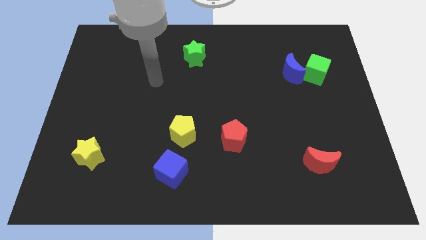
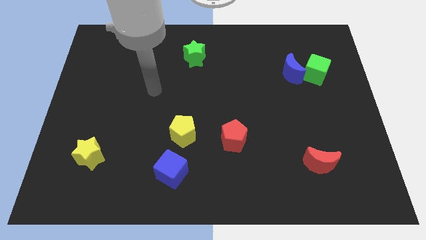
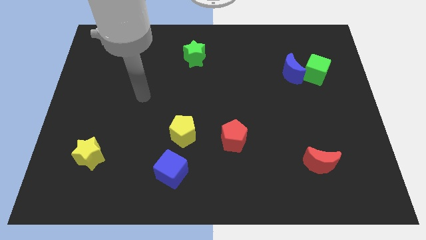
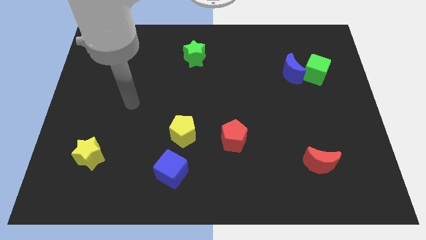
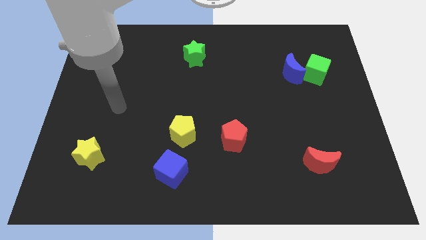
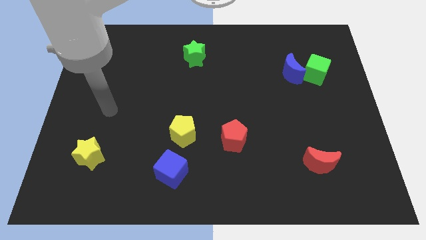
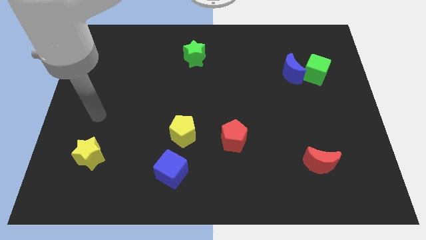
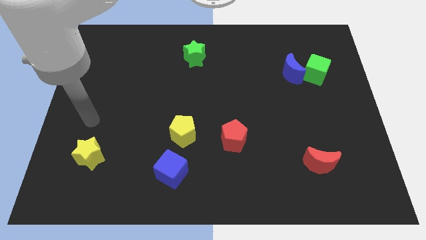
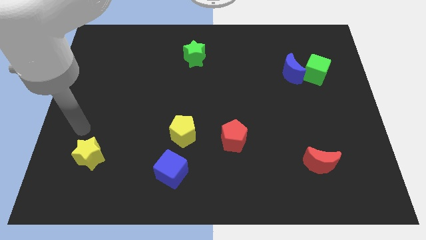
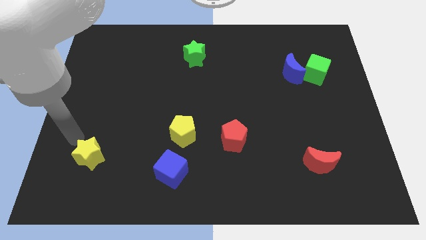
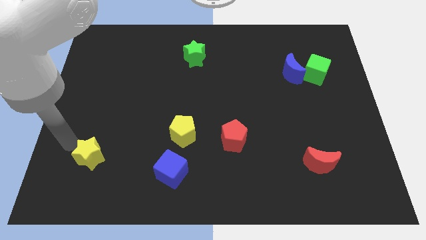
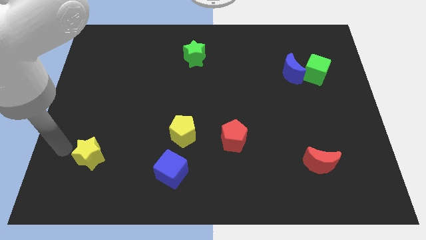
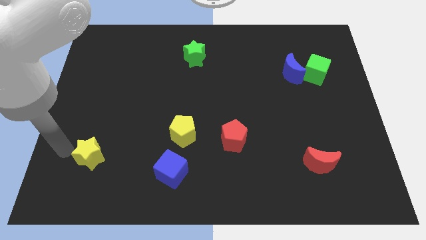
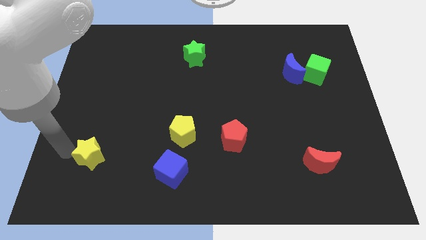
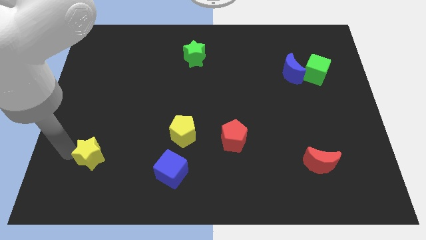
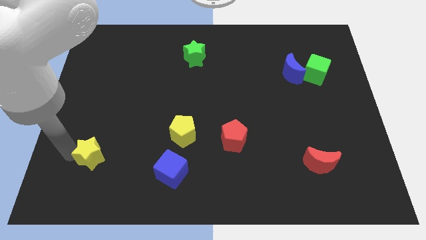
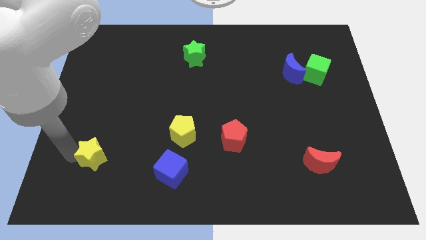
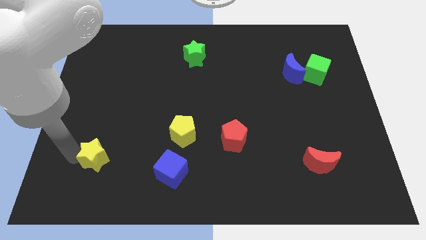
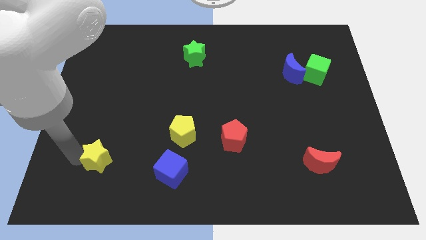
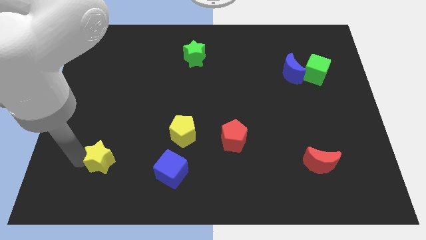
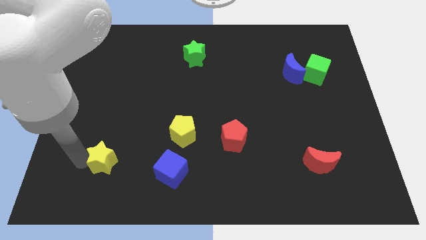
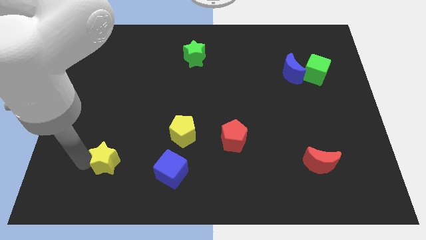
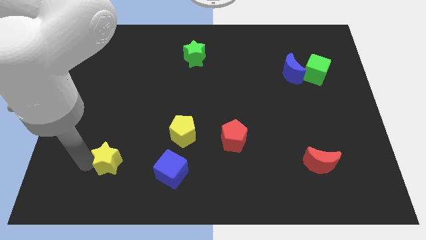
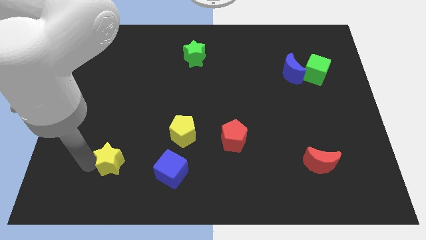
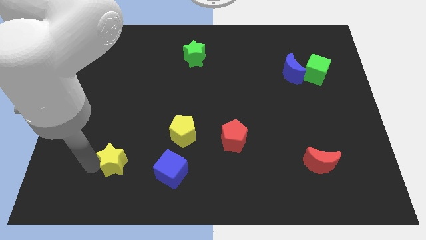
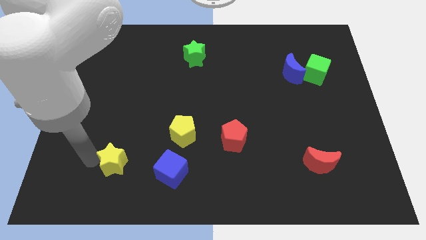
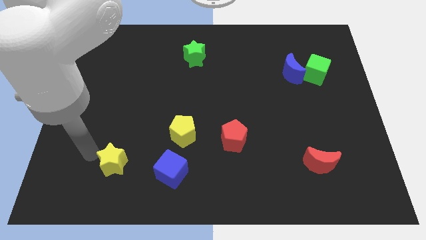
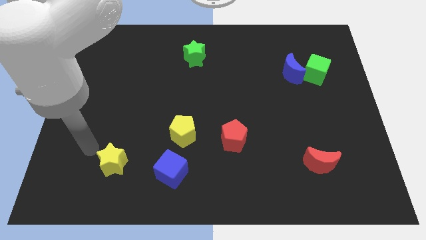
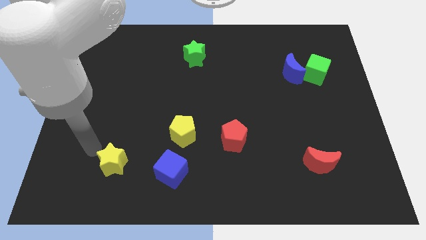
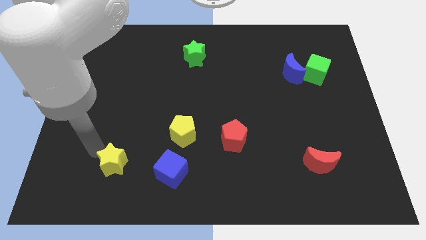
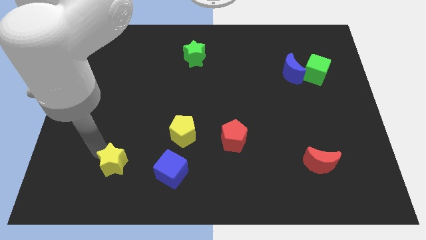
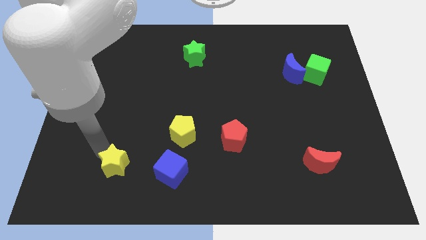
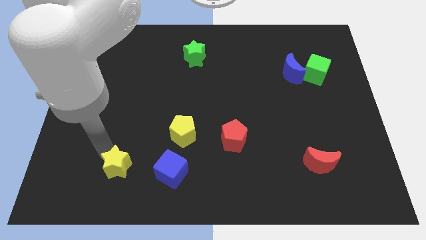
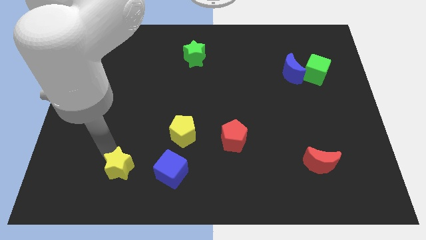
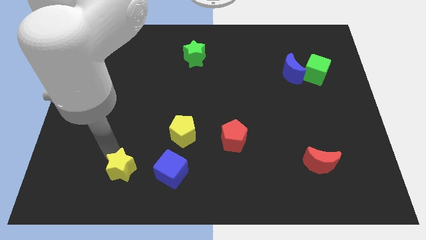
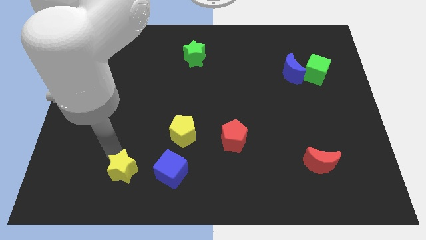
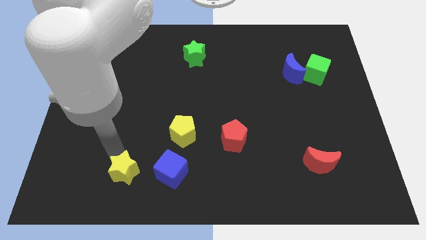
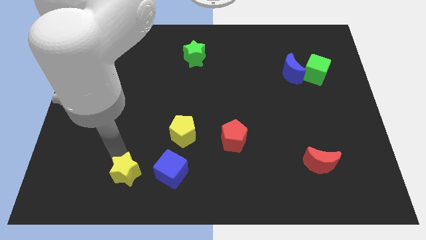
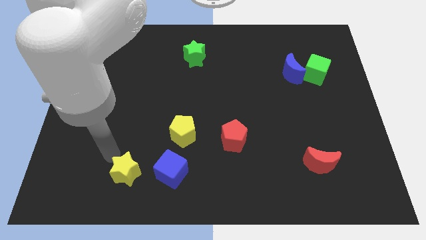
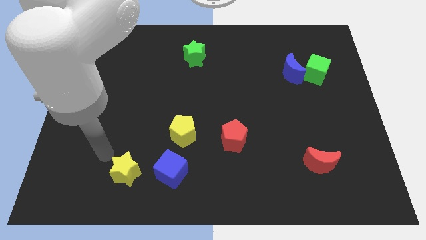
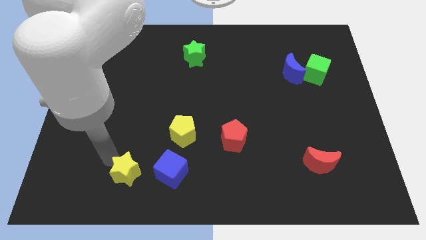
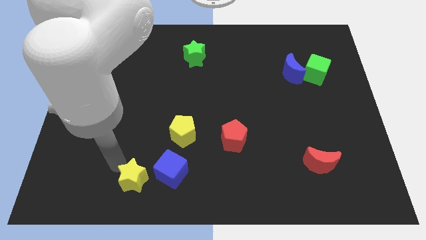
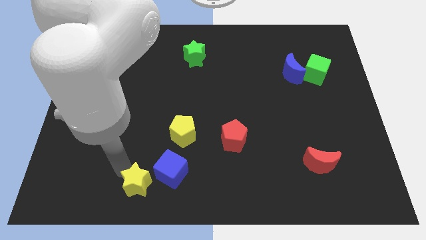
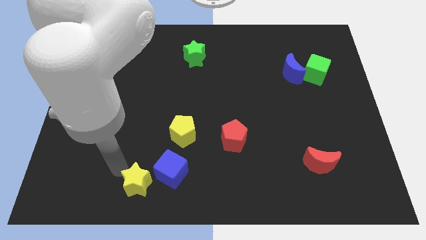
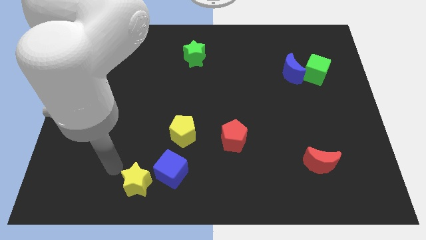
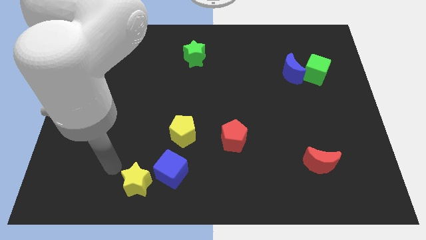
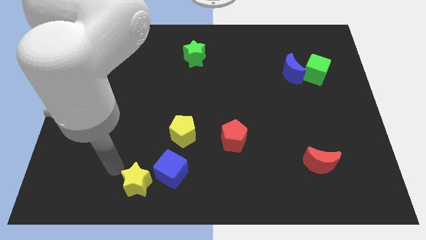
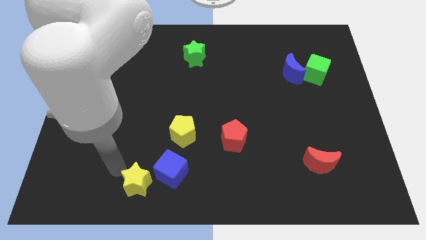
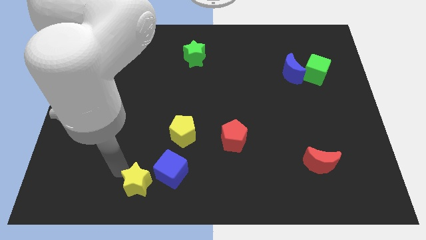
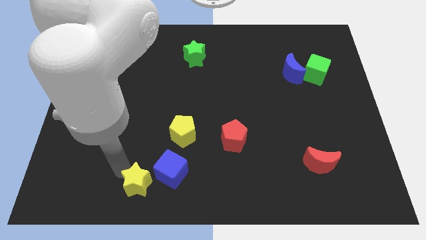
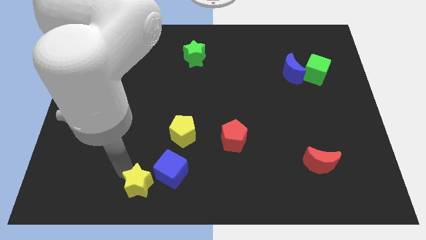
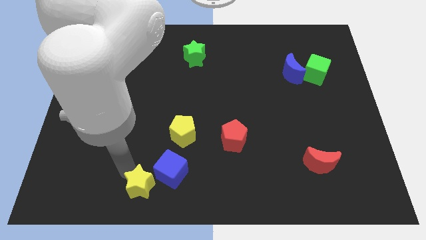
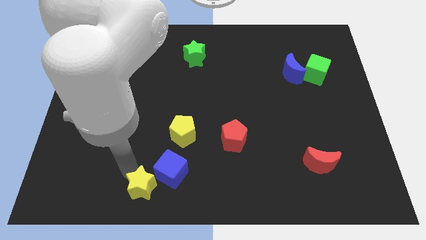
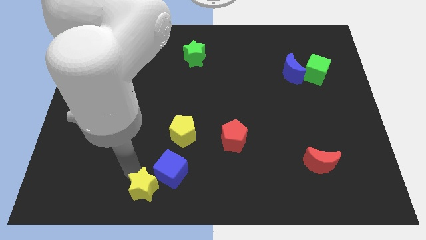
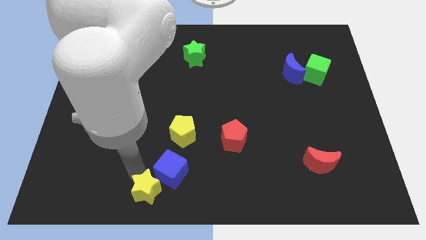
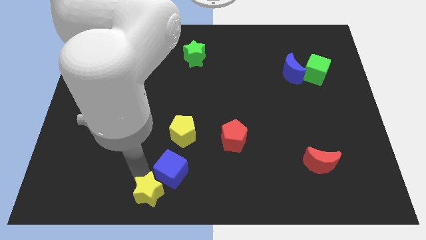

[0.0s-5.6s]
slide the yellow star to the bottom

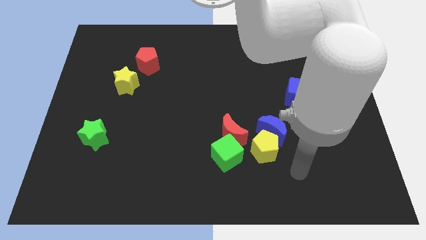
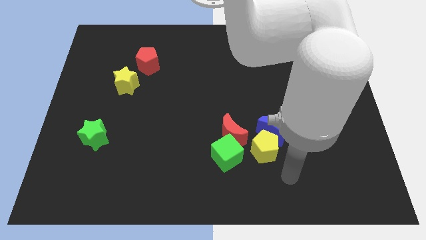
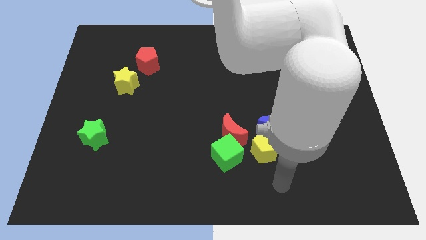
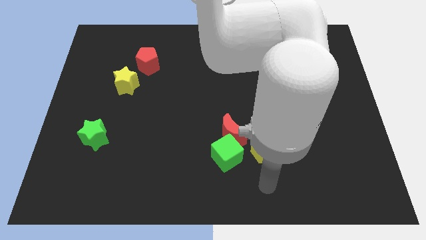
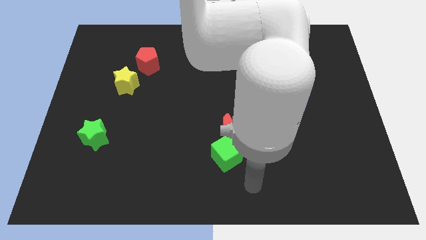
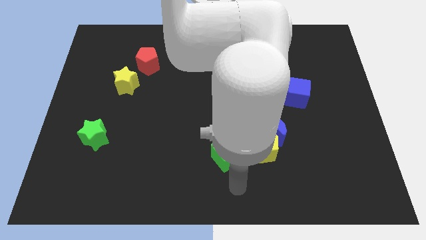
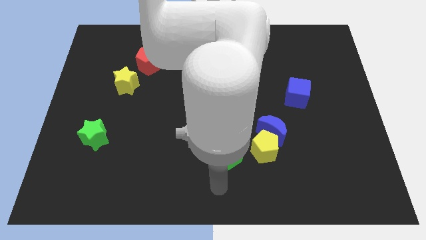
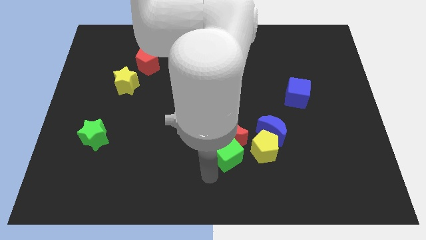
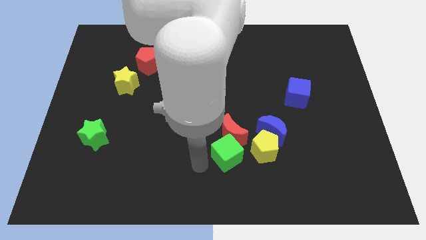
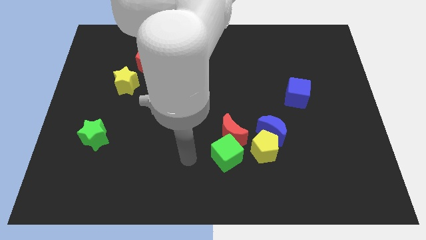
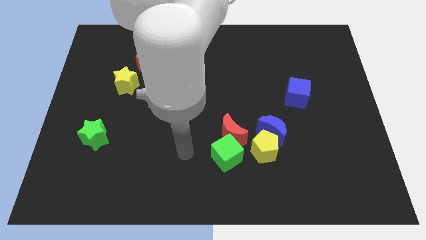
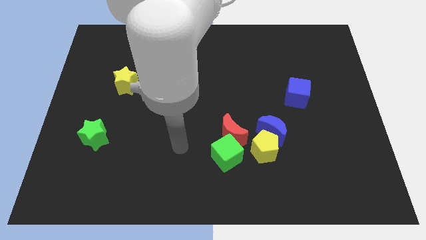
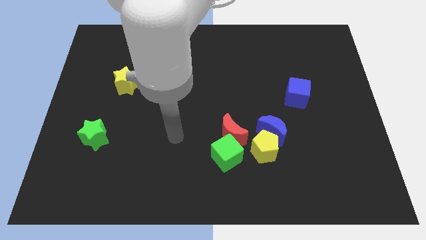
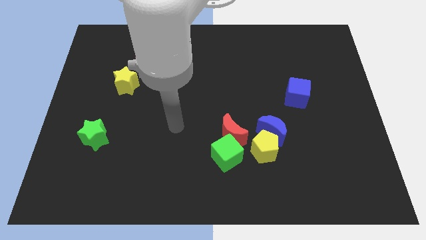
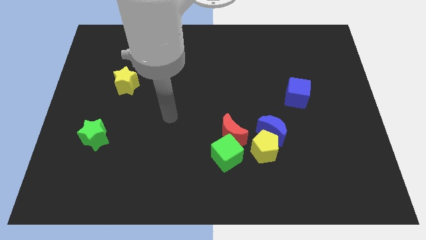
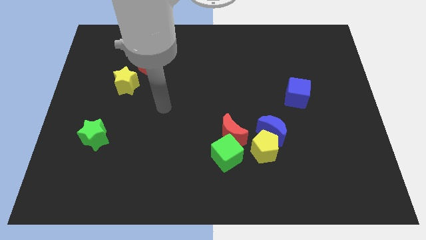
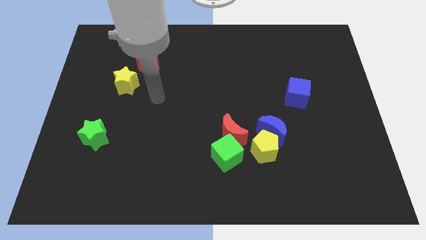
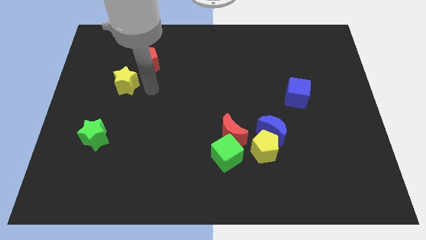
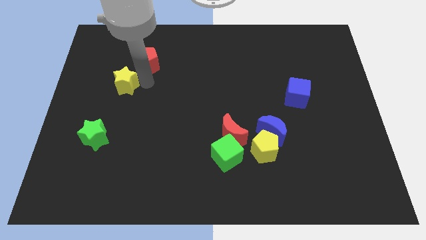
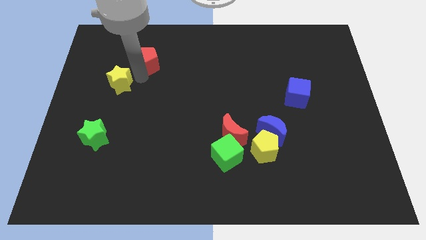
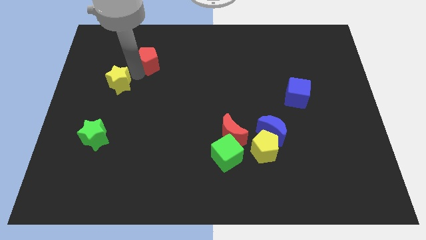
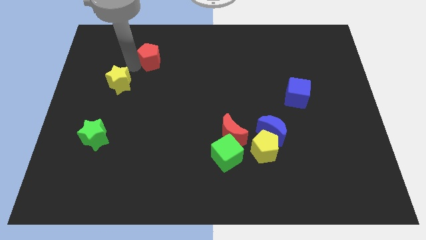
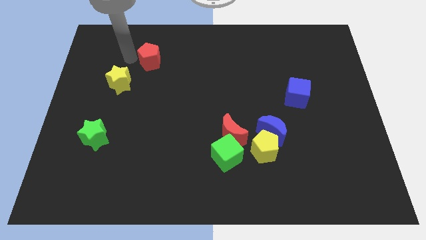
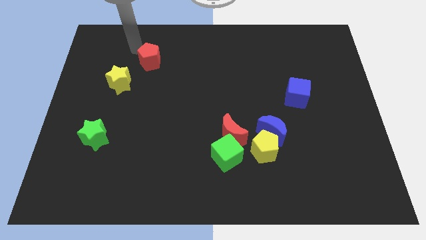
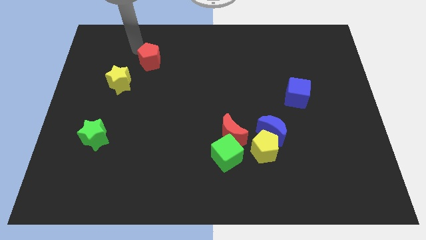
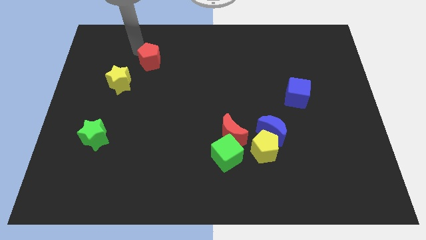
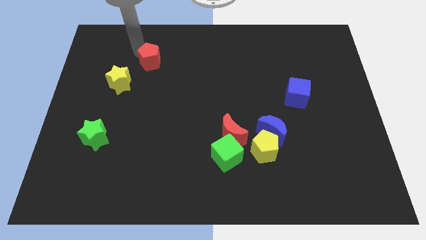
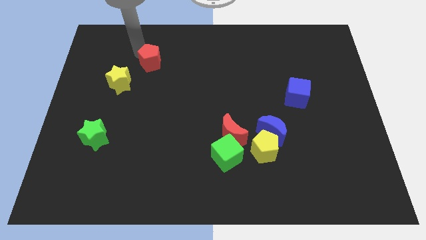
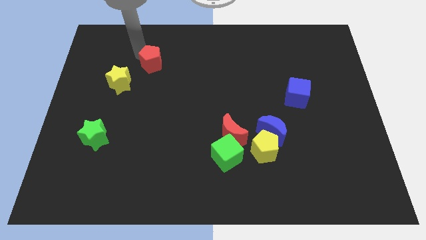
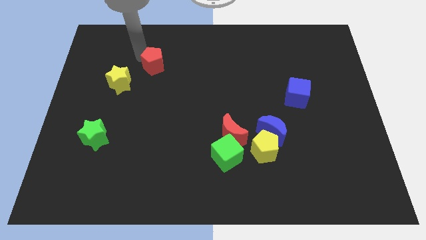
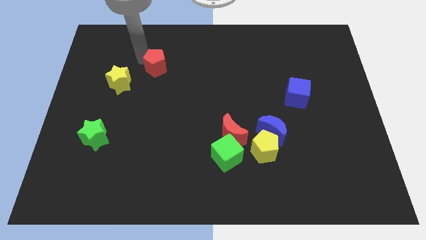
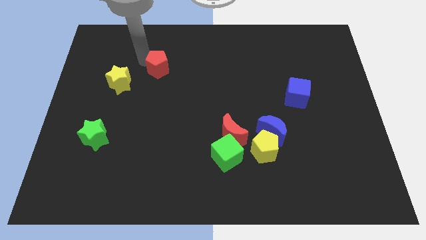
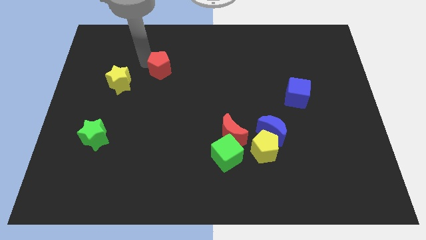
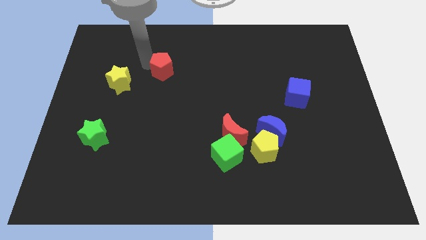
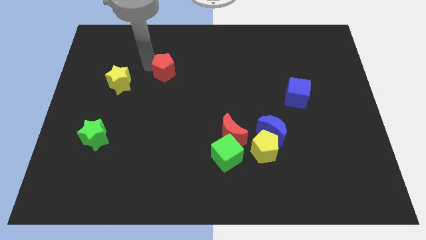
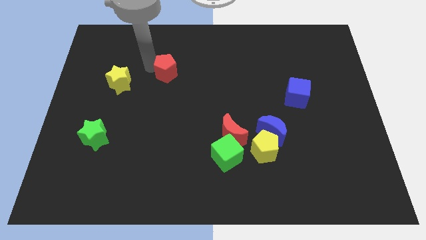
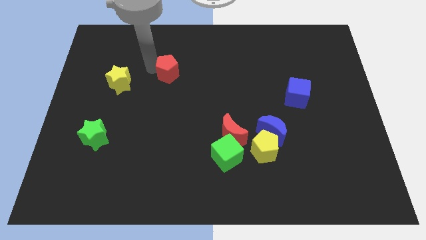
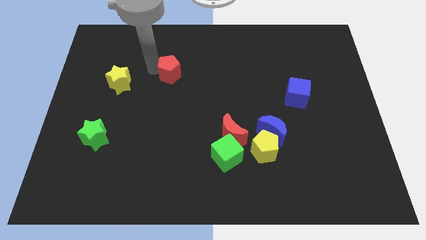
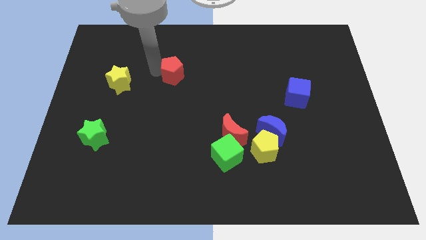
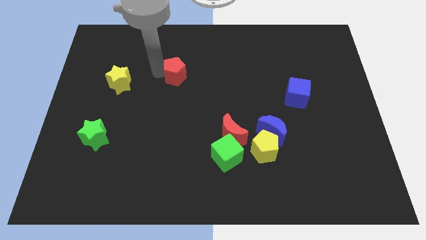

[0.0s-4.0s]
put the red pentagon to the middle of the board
